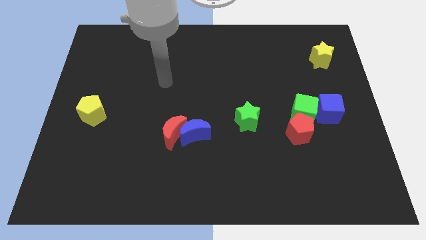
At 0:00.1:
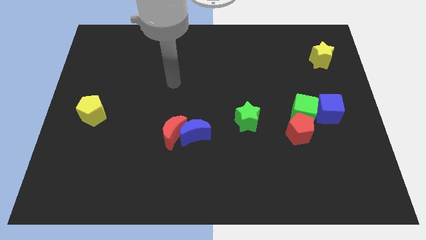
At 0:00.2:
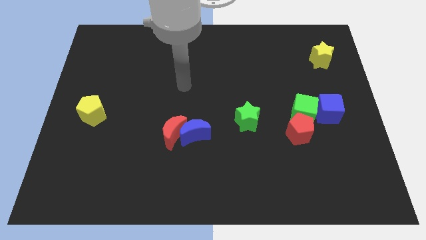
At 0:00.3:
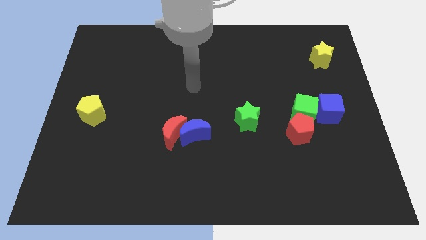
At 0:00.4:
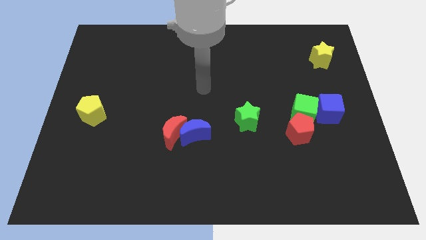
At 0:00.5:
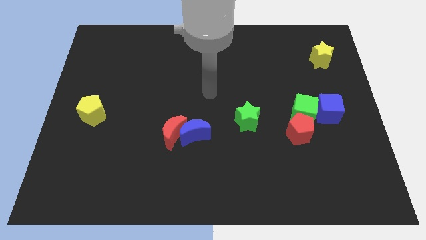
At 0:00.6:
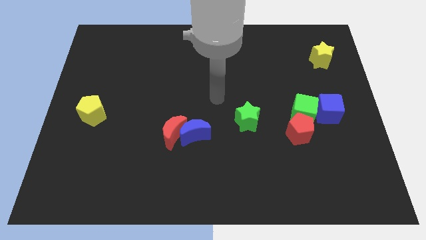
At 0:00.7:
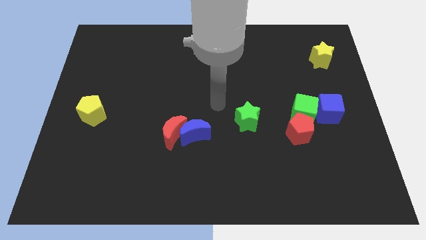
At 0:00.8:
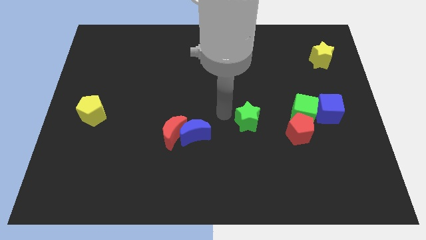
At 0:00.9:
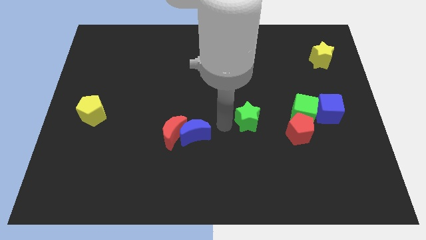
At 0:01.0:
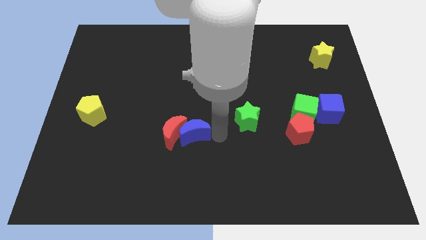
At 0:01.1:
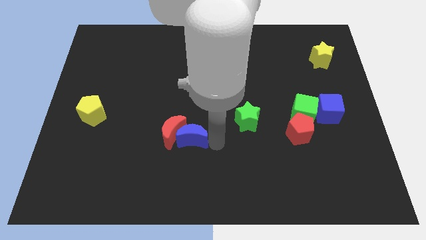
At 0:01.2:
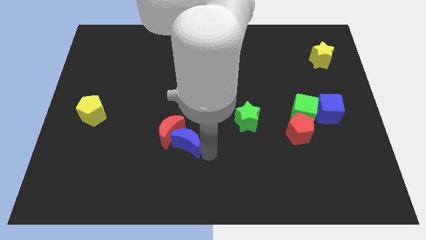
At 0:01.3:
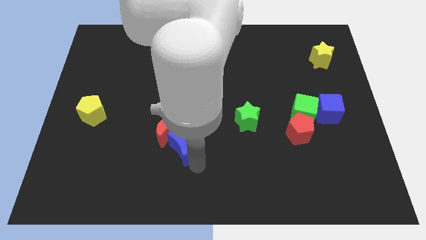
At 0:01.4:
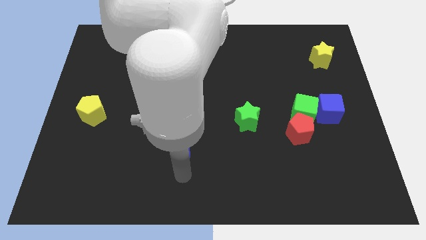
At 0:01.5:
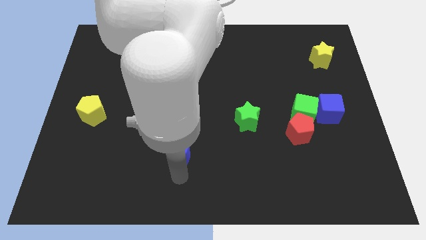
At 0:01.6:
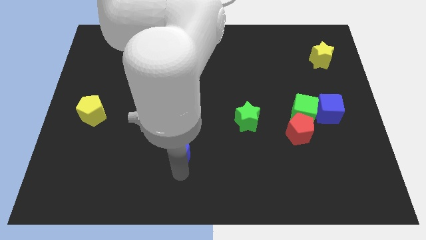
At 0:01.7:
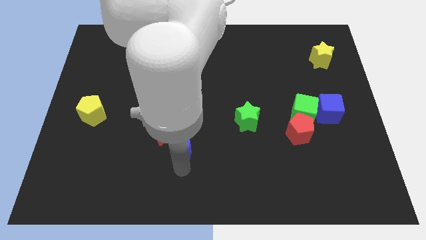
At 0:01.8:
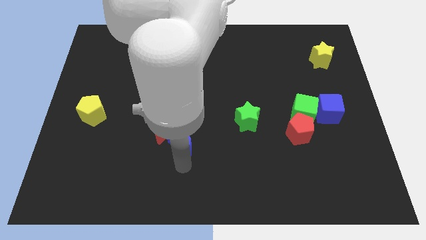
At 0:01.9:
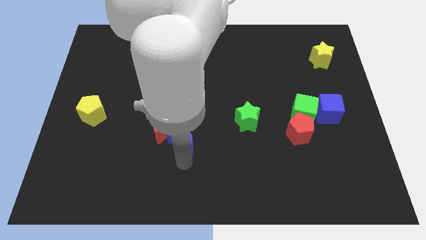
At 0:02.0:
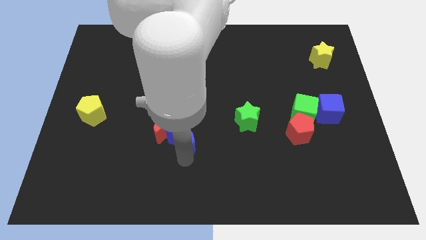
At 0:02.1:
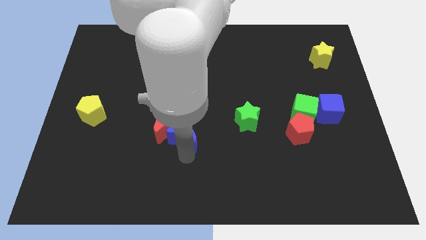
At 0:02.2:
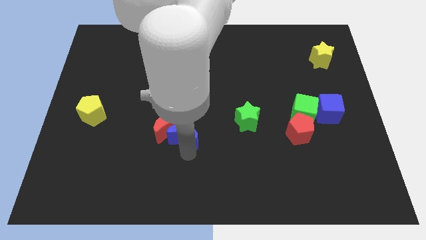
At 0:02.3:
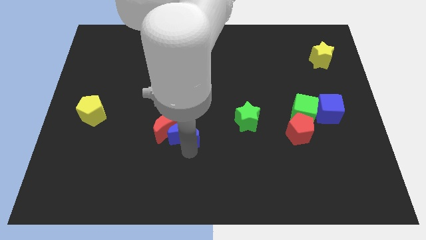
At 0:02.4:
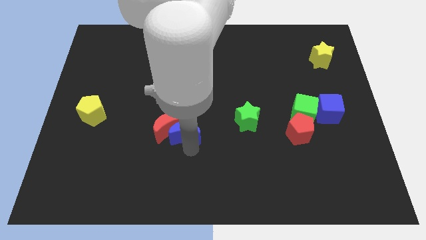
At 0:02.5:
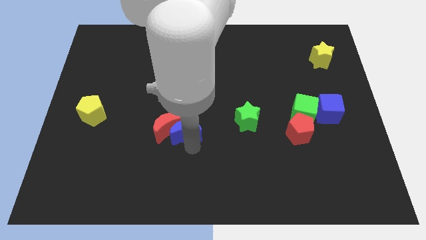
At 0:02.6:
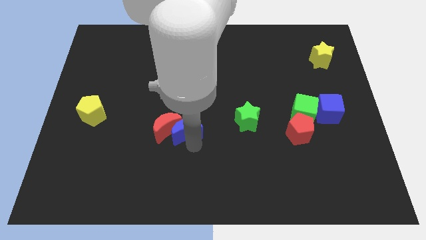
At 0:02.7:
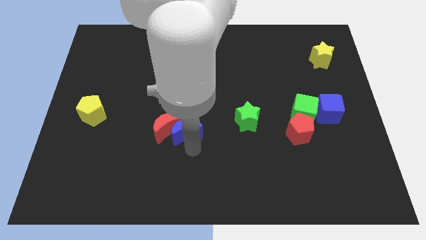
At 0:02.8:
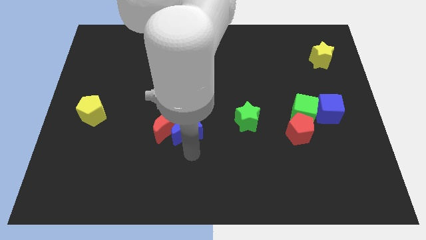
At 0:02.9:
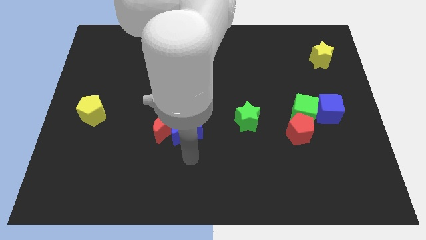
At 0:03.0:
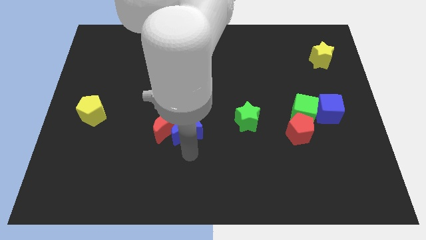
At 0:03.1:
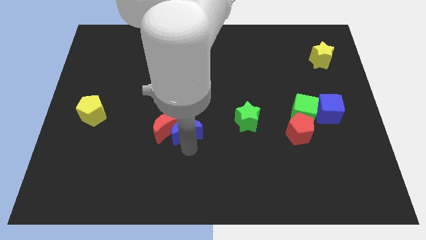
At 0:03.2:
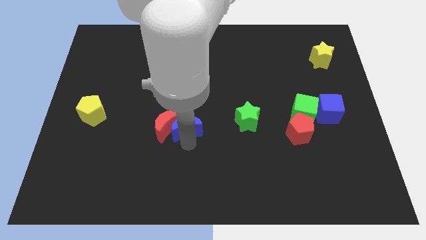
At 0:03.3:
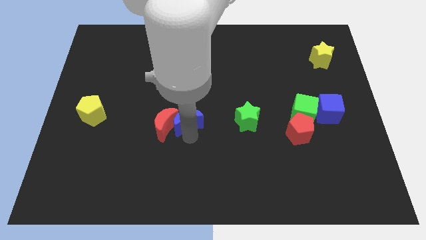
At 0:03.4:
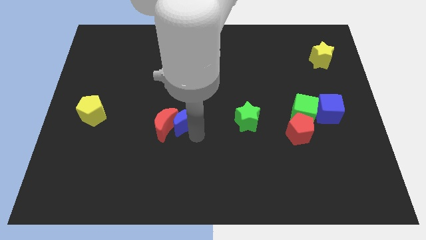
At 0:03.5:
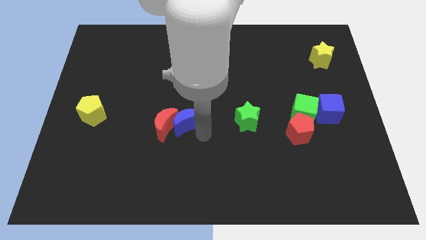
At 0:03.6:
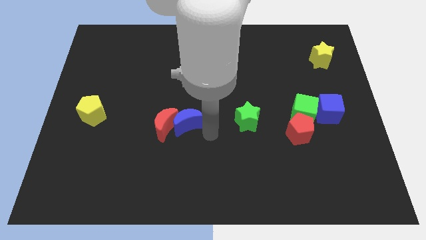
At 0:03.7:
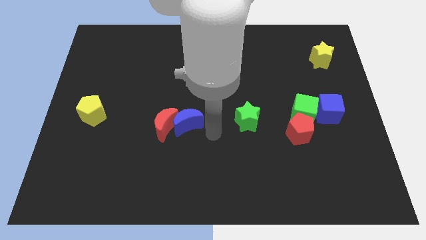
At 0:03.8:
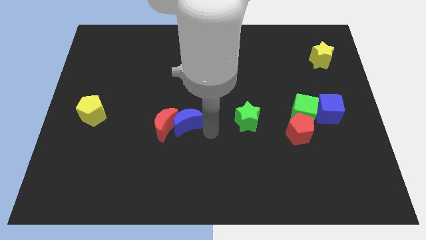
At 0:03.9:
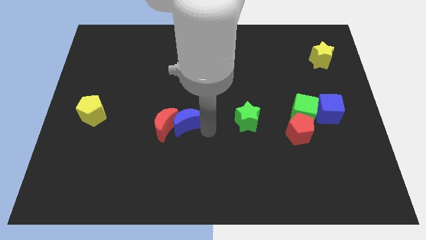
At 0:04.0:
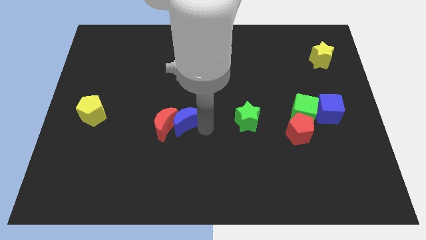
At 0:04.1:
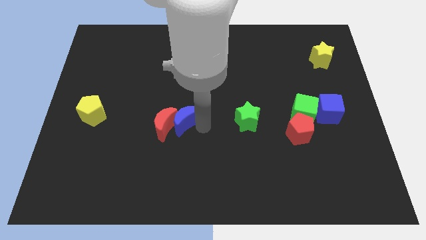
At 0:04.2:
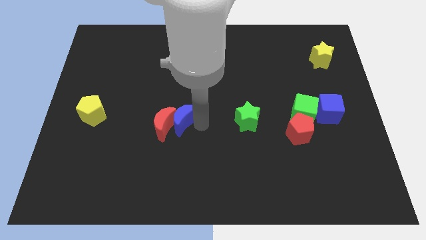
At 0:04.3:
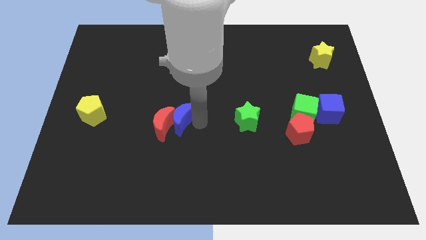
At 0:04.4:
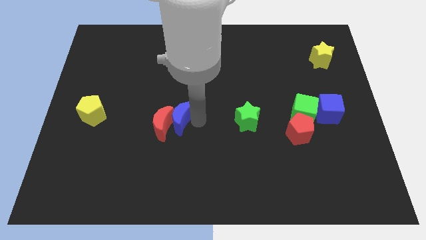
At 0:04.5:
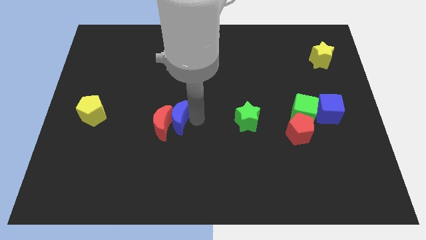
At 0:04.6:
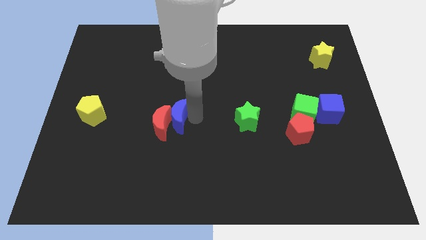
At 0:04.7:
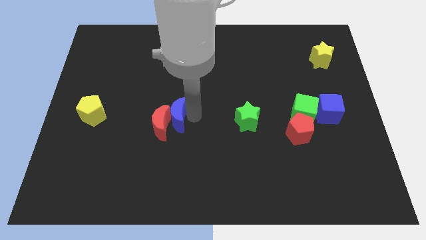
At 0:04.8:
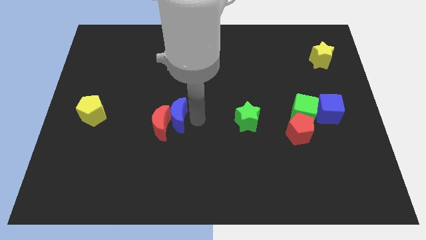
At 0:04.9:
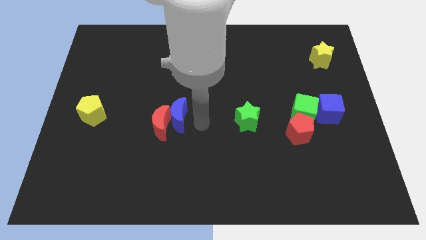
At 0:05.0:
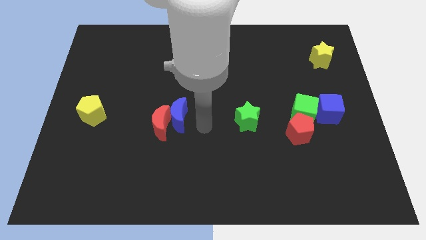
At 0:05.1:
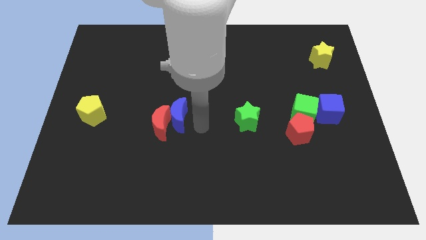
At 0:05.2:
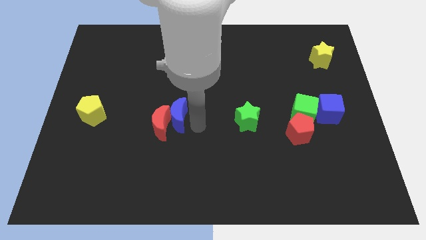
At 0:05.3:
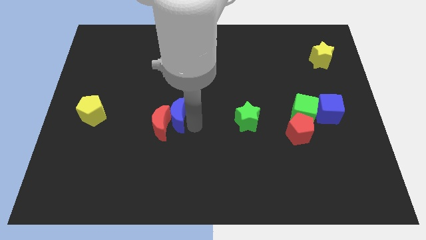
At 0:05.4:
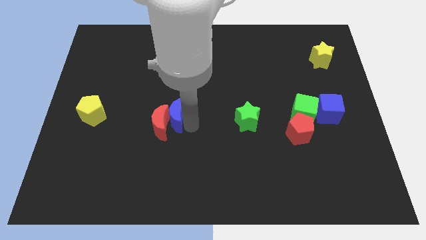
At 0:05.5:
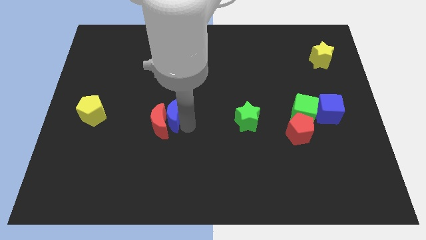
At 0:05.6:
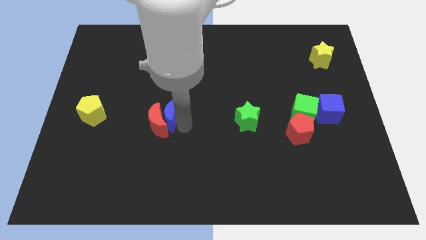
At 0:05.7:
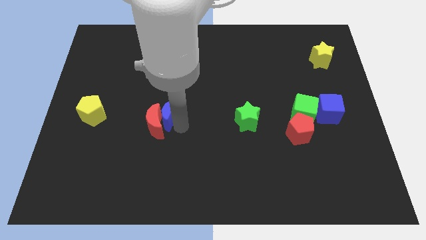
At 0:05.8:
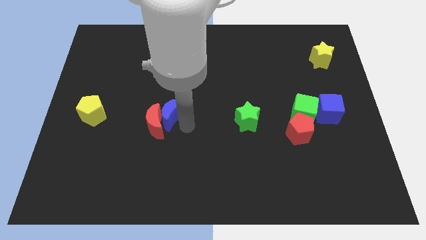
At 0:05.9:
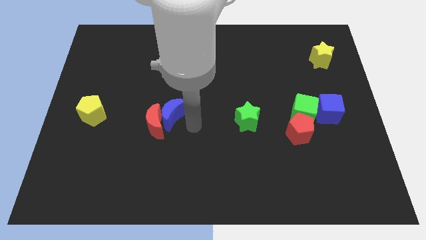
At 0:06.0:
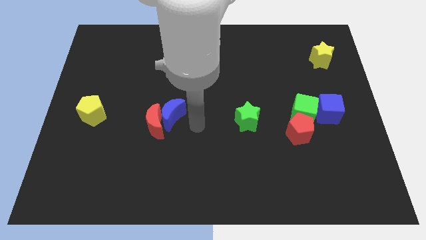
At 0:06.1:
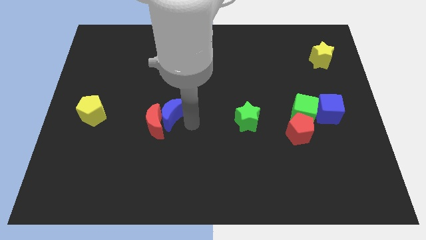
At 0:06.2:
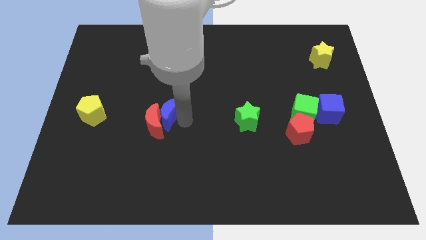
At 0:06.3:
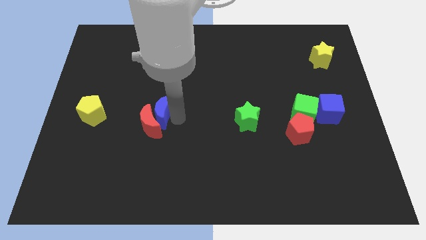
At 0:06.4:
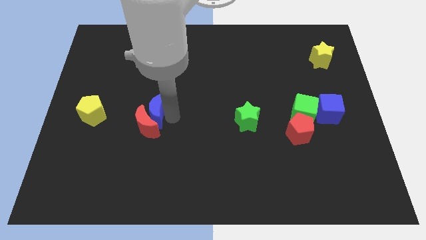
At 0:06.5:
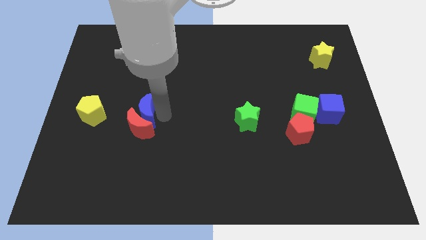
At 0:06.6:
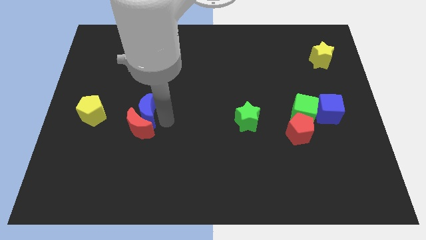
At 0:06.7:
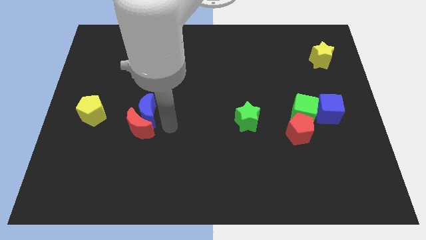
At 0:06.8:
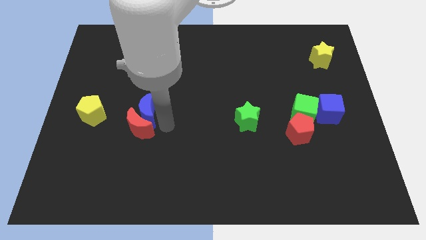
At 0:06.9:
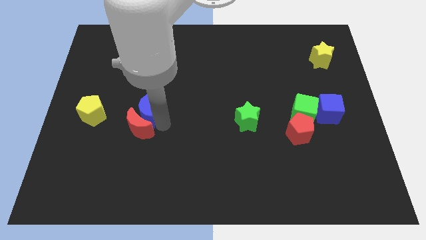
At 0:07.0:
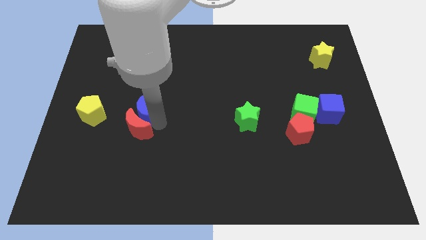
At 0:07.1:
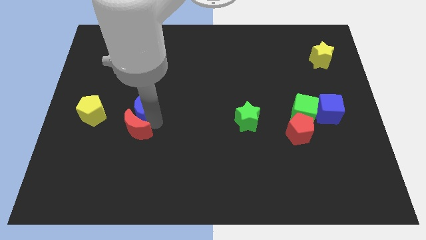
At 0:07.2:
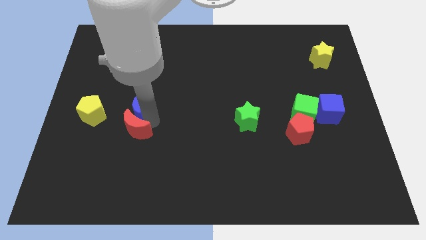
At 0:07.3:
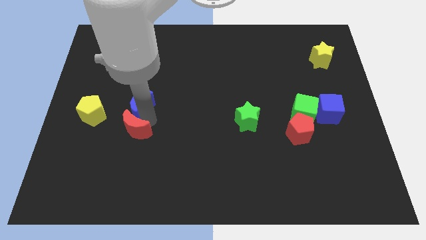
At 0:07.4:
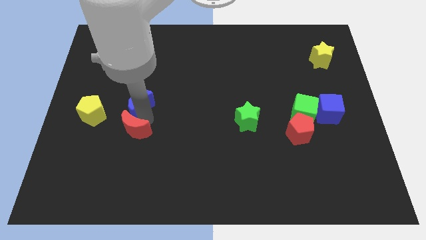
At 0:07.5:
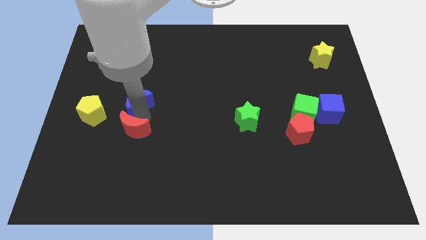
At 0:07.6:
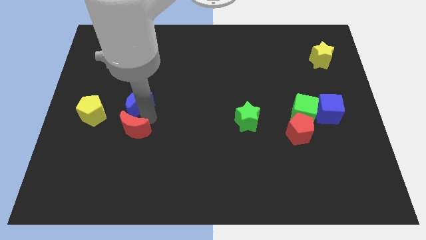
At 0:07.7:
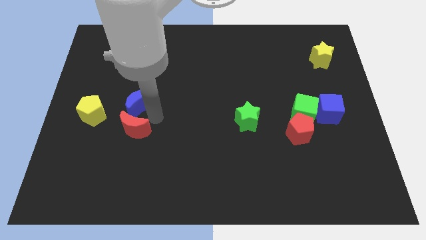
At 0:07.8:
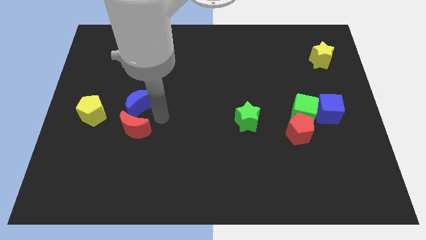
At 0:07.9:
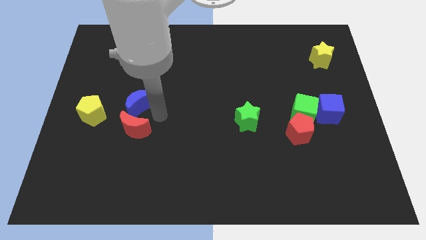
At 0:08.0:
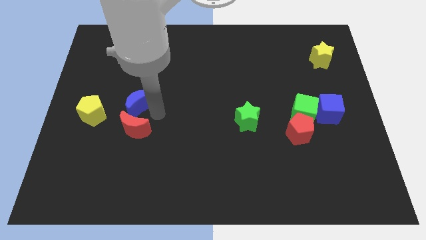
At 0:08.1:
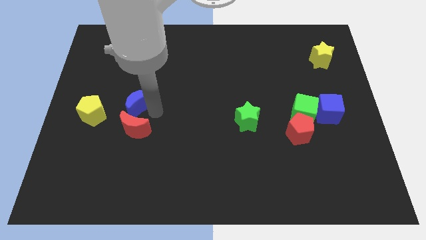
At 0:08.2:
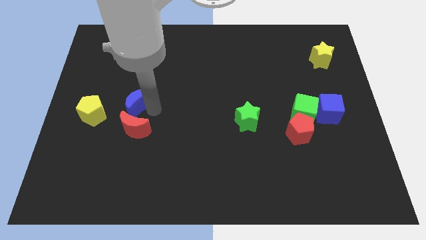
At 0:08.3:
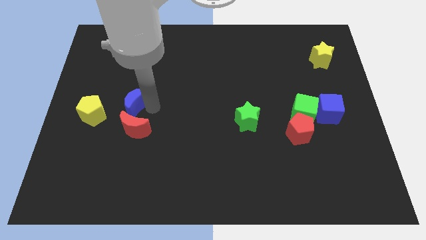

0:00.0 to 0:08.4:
slide the blue moon diagonally up and to the right of the yellow pentagon
